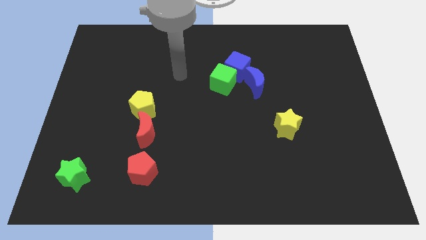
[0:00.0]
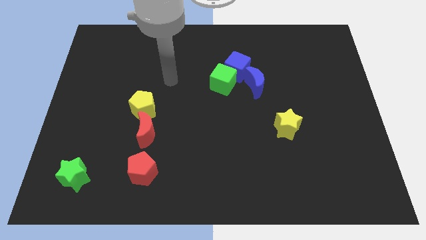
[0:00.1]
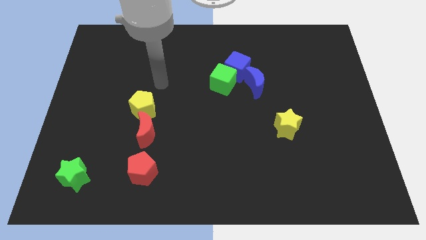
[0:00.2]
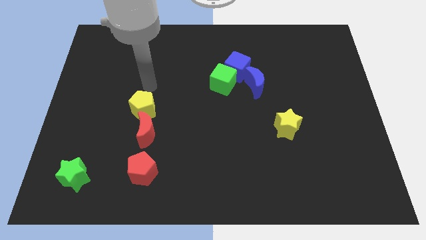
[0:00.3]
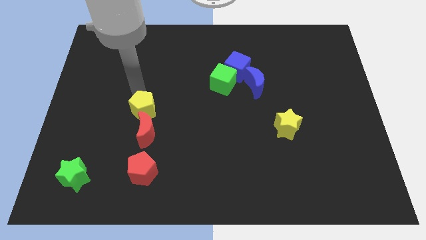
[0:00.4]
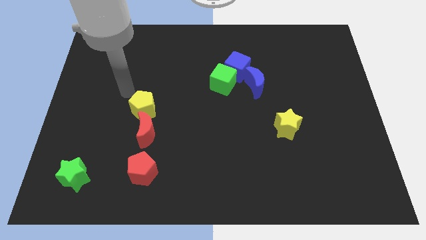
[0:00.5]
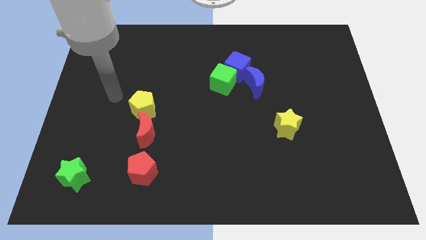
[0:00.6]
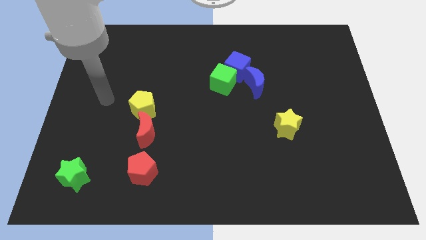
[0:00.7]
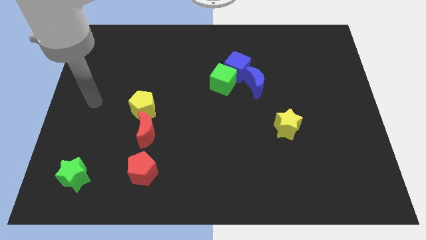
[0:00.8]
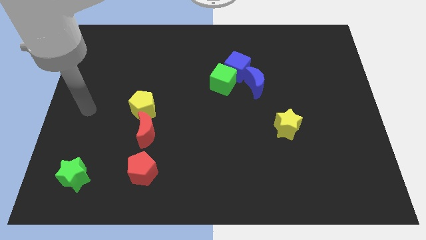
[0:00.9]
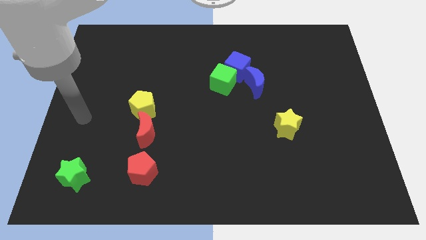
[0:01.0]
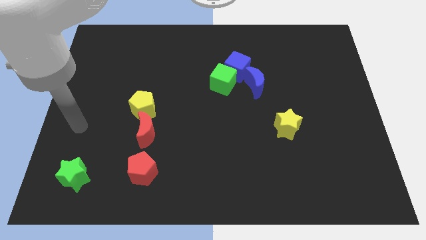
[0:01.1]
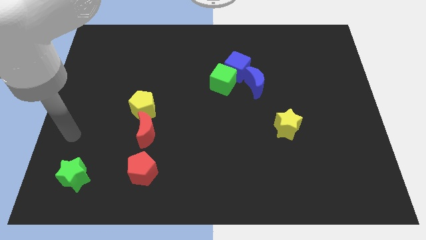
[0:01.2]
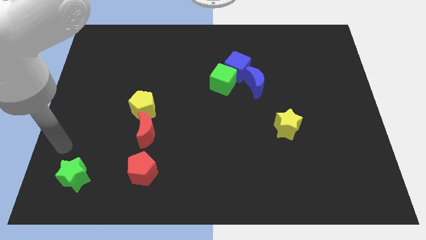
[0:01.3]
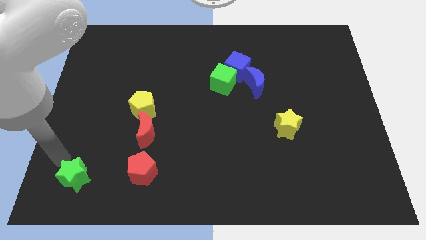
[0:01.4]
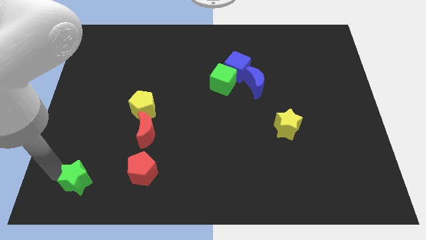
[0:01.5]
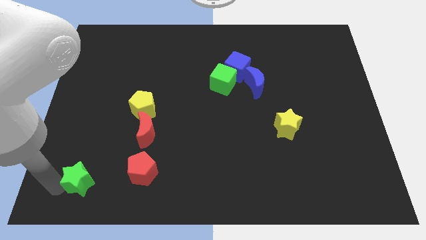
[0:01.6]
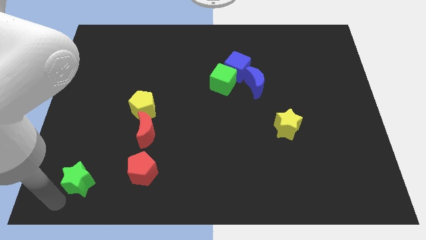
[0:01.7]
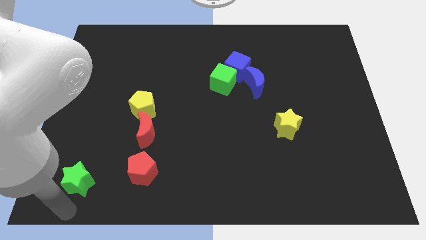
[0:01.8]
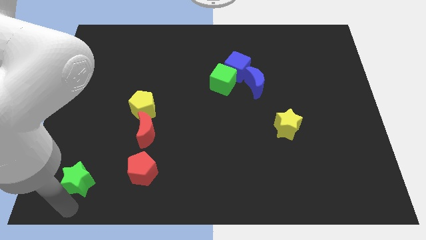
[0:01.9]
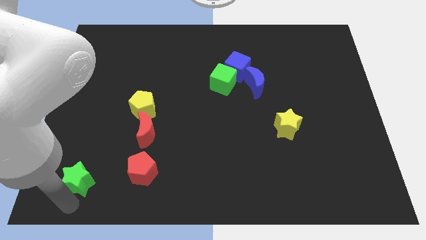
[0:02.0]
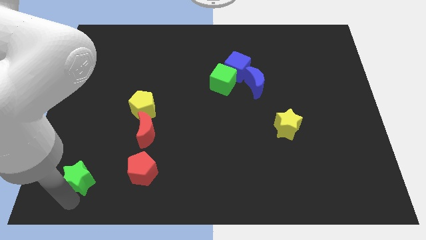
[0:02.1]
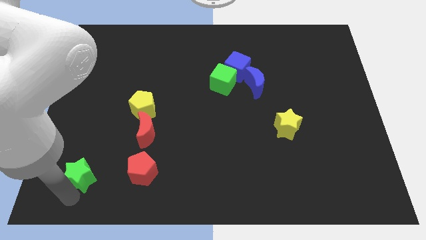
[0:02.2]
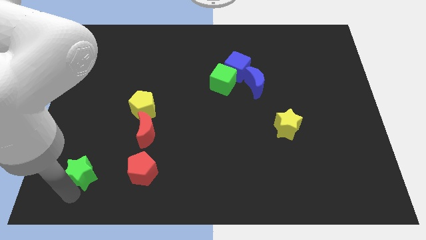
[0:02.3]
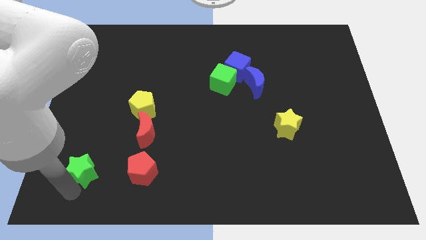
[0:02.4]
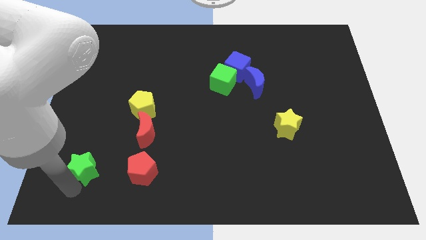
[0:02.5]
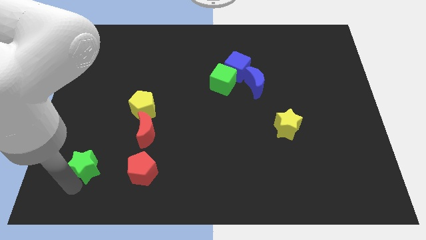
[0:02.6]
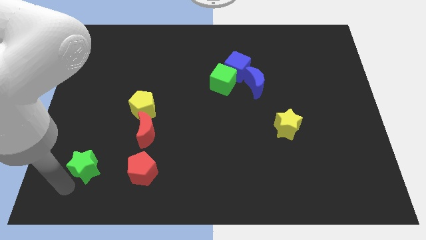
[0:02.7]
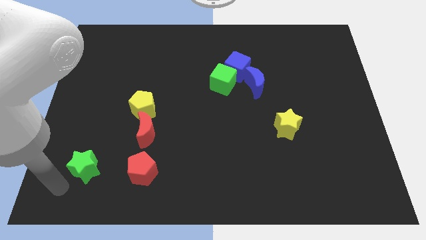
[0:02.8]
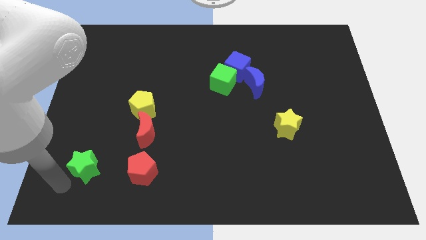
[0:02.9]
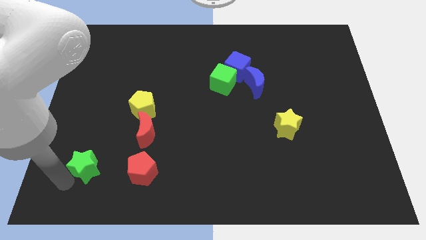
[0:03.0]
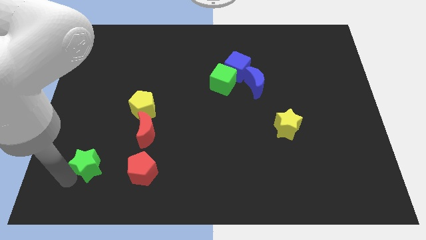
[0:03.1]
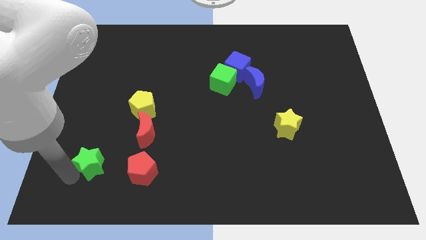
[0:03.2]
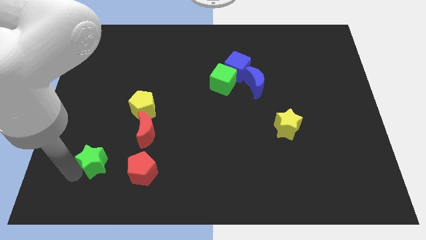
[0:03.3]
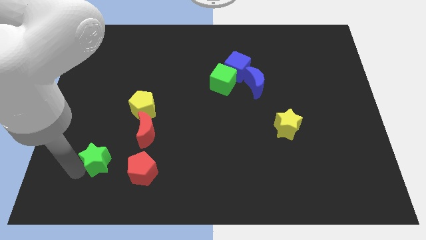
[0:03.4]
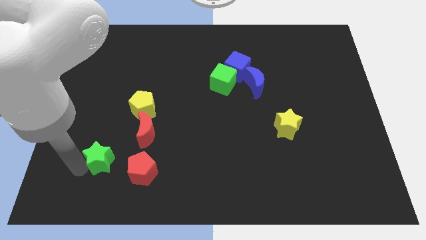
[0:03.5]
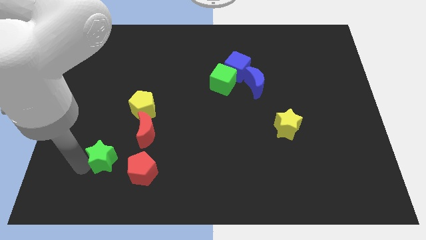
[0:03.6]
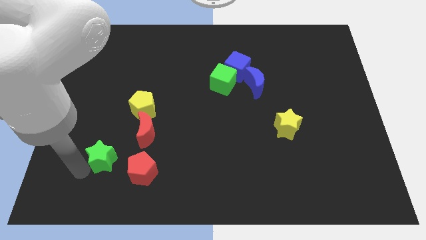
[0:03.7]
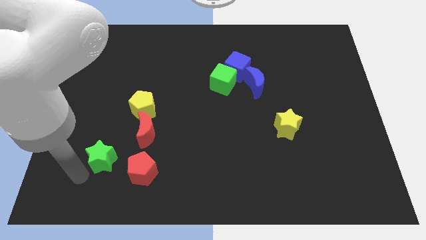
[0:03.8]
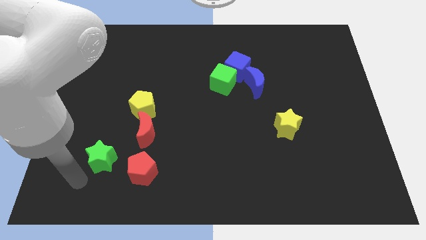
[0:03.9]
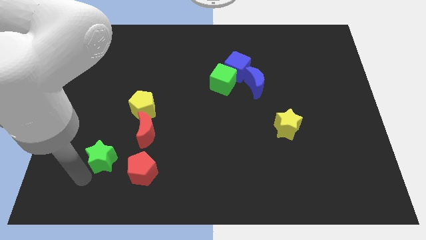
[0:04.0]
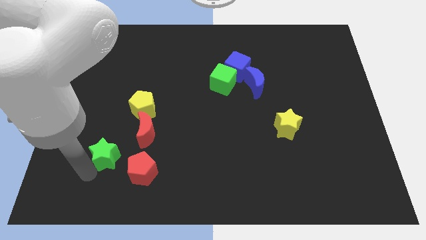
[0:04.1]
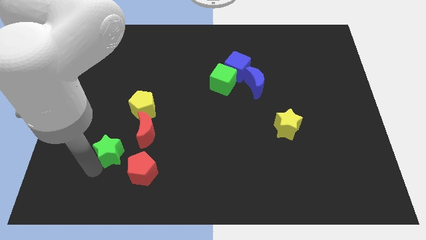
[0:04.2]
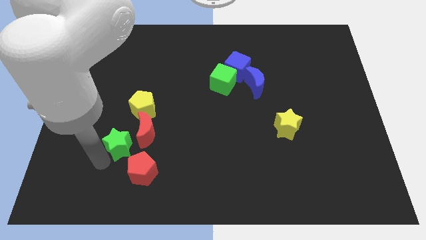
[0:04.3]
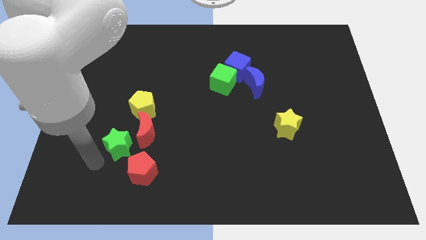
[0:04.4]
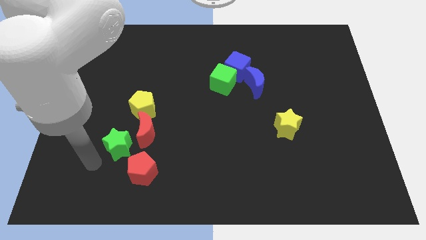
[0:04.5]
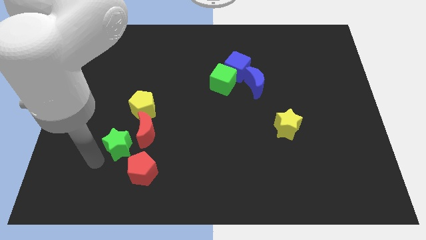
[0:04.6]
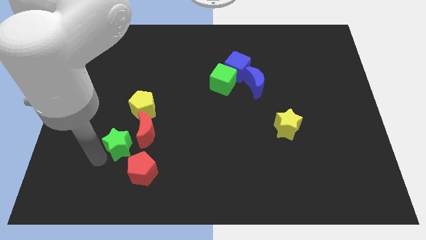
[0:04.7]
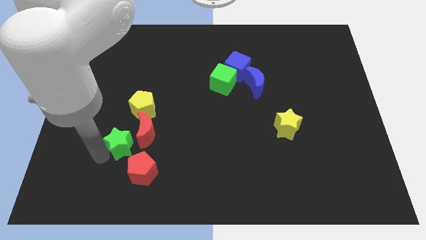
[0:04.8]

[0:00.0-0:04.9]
push the green star to the red moon

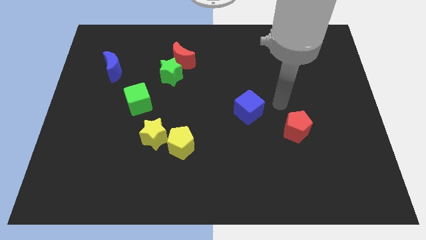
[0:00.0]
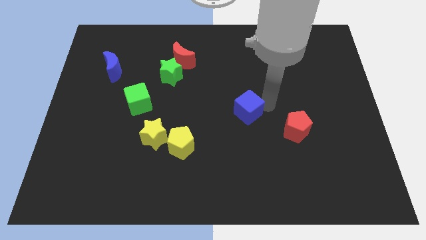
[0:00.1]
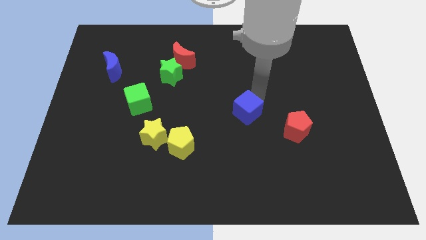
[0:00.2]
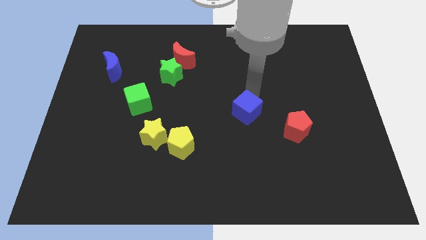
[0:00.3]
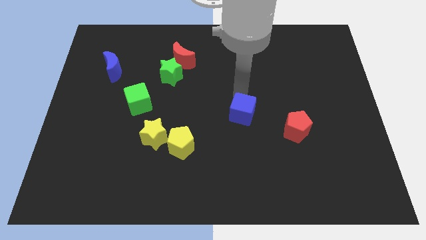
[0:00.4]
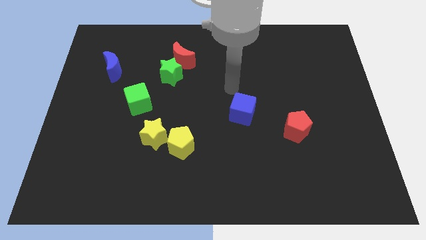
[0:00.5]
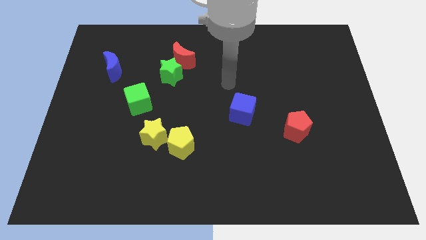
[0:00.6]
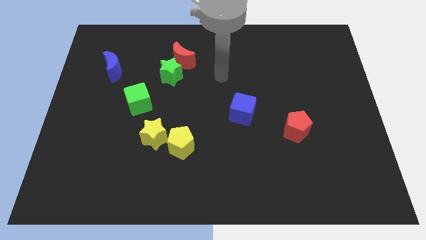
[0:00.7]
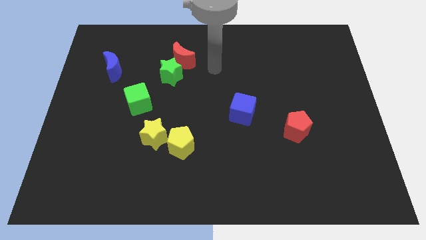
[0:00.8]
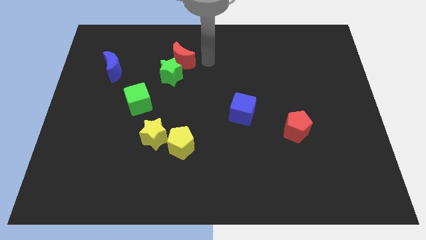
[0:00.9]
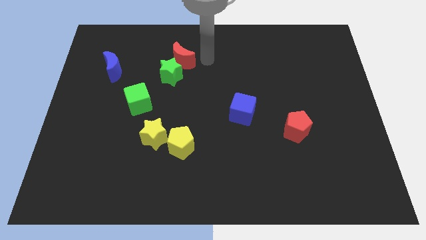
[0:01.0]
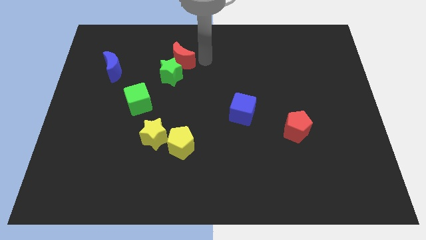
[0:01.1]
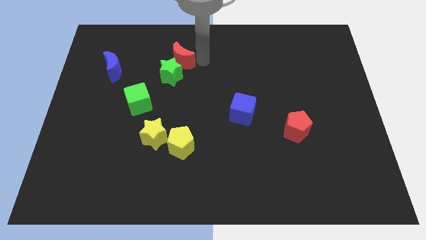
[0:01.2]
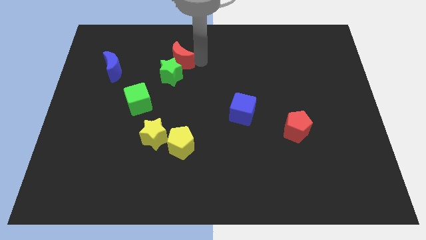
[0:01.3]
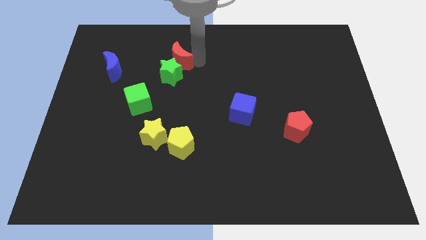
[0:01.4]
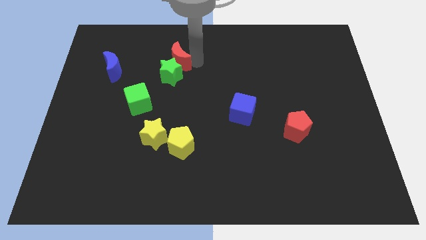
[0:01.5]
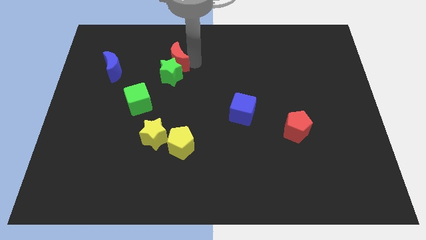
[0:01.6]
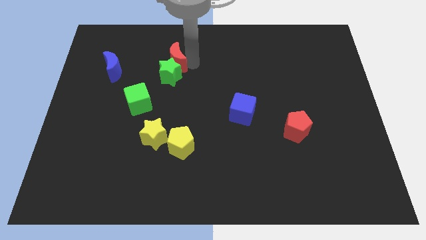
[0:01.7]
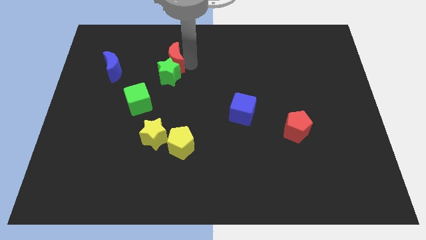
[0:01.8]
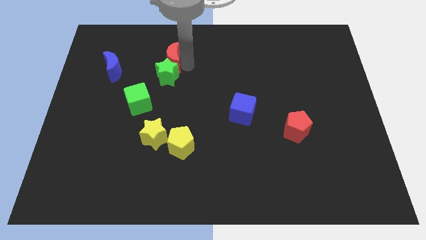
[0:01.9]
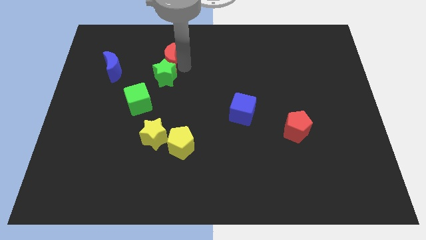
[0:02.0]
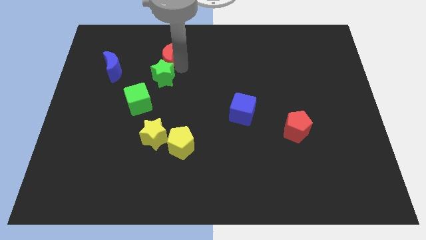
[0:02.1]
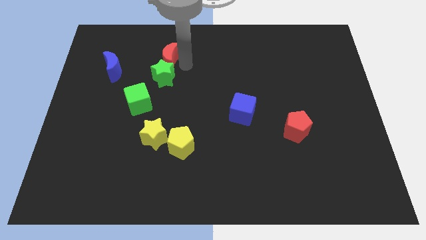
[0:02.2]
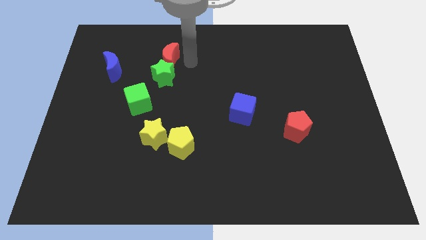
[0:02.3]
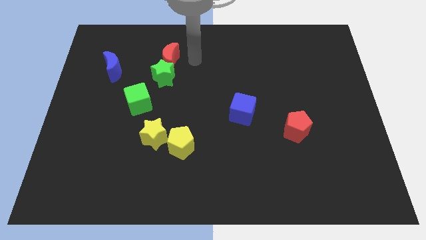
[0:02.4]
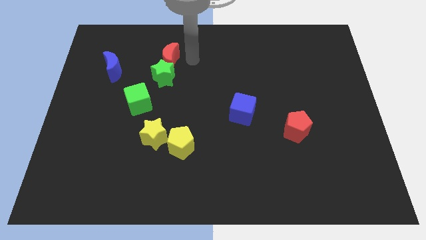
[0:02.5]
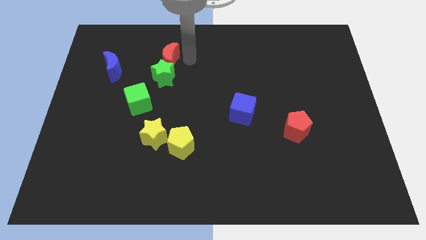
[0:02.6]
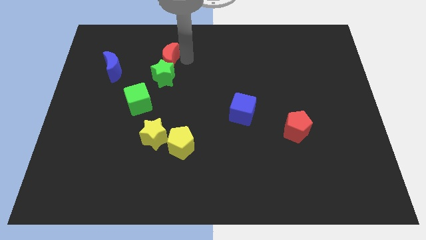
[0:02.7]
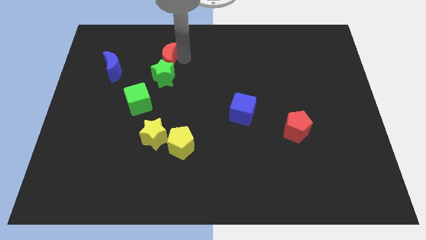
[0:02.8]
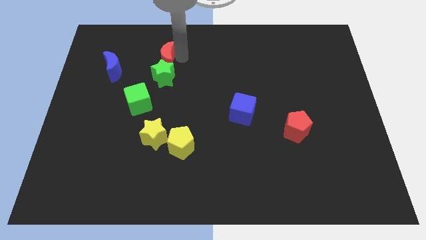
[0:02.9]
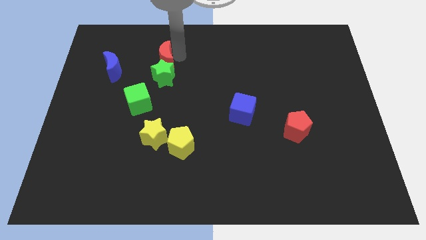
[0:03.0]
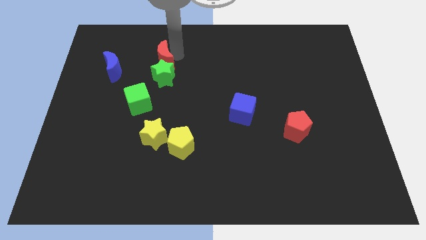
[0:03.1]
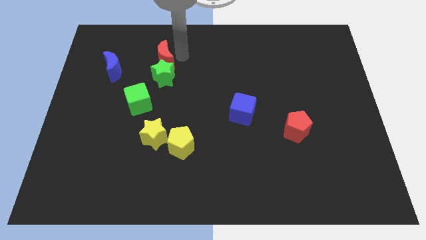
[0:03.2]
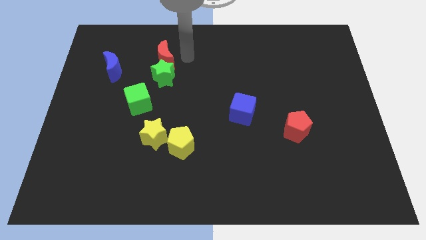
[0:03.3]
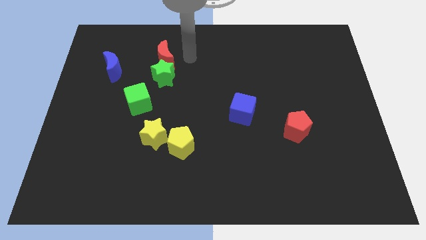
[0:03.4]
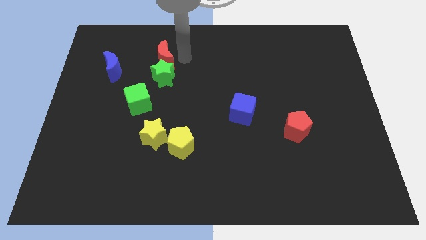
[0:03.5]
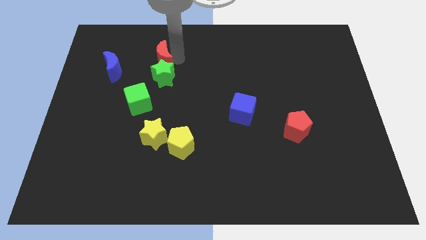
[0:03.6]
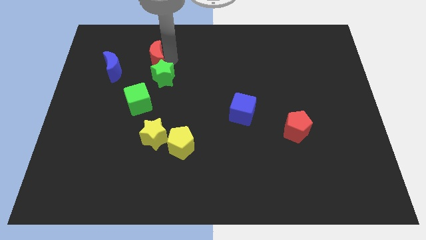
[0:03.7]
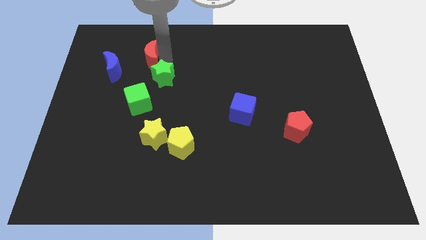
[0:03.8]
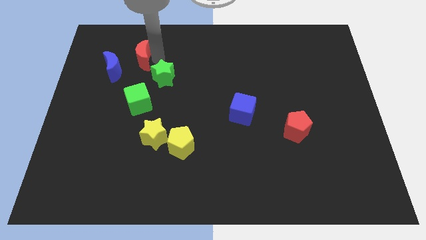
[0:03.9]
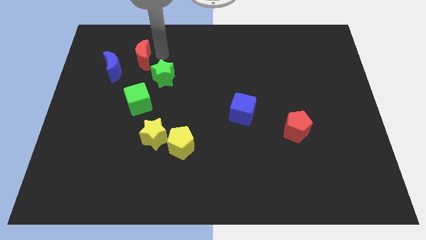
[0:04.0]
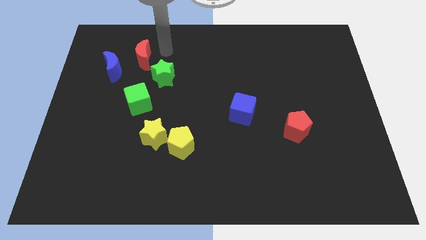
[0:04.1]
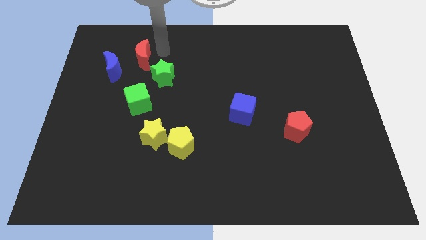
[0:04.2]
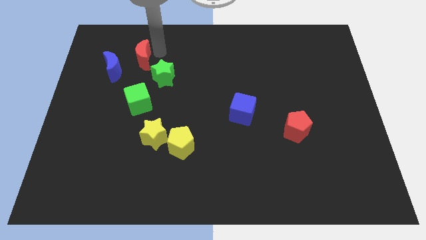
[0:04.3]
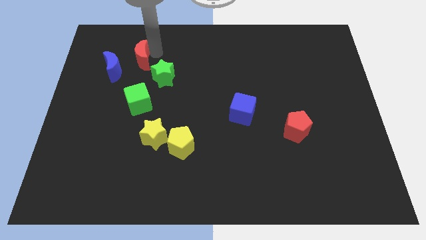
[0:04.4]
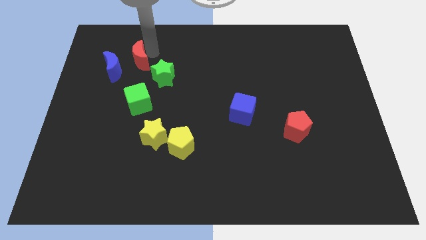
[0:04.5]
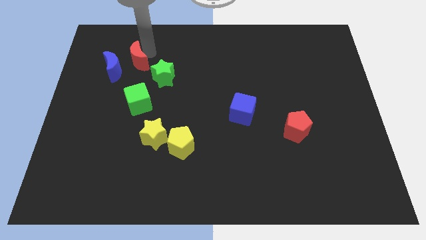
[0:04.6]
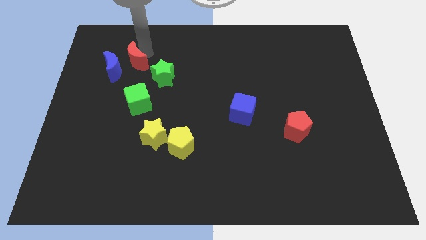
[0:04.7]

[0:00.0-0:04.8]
move the red moon next to the blue moon
